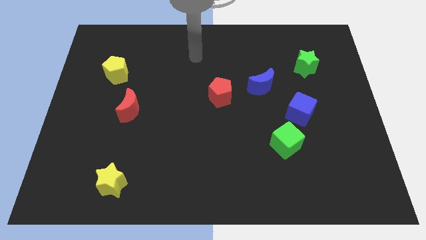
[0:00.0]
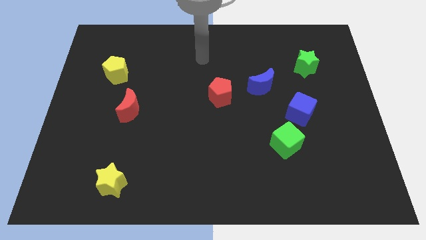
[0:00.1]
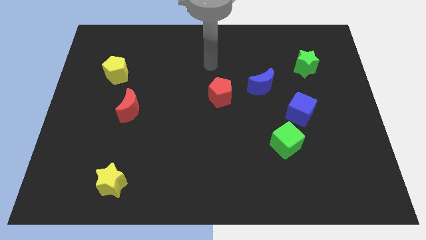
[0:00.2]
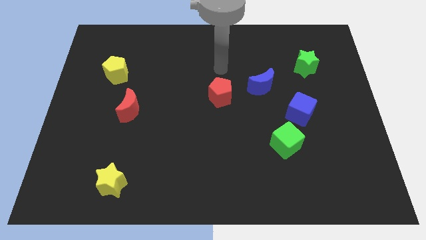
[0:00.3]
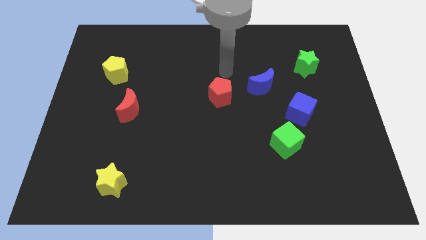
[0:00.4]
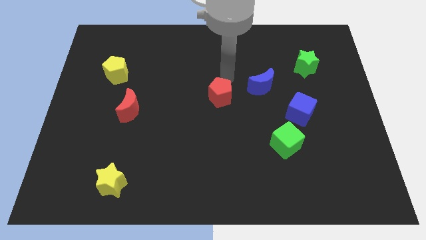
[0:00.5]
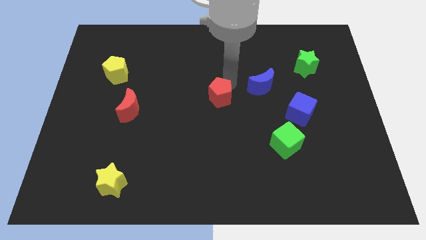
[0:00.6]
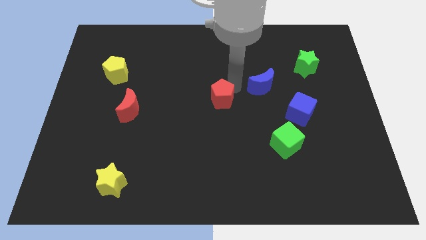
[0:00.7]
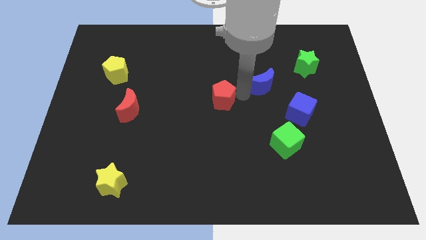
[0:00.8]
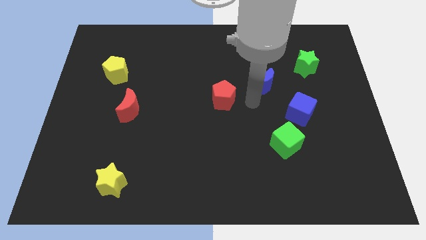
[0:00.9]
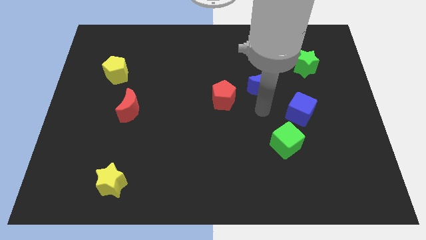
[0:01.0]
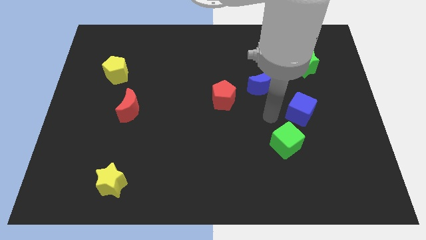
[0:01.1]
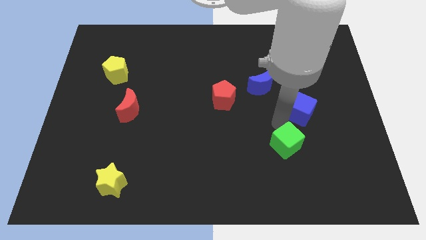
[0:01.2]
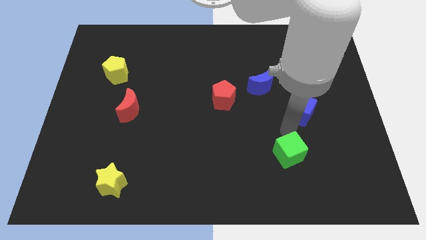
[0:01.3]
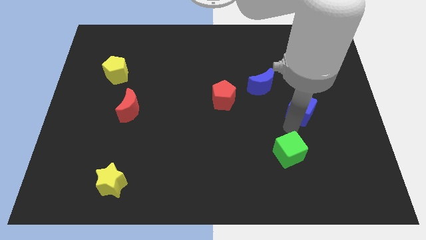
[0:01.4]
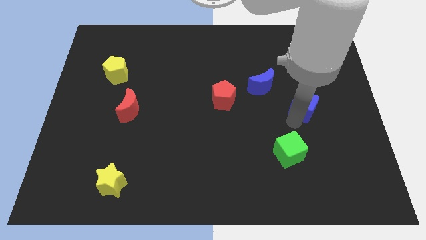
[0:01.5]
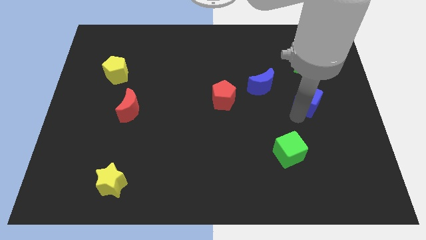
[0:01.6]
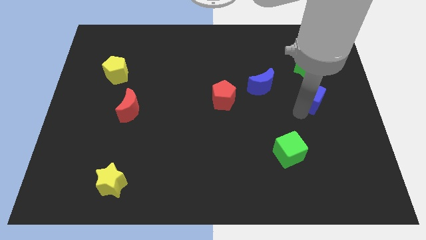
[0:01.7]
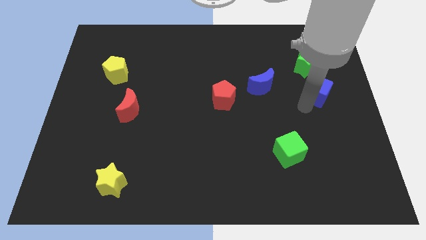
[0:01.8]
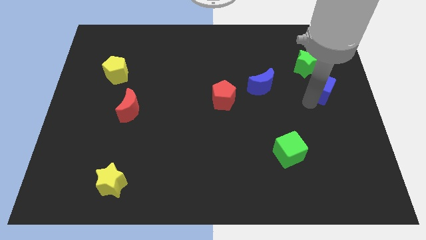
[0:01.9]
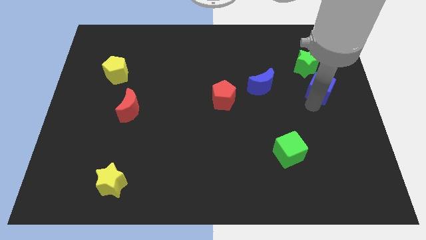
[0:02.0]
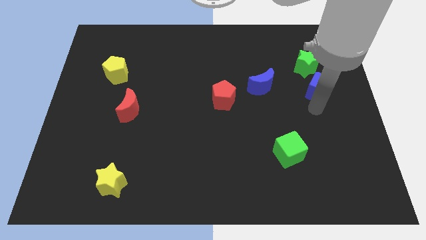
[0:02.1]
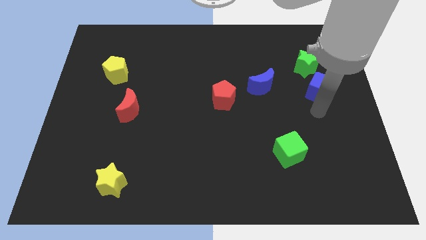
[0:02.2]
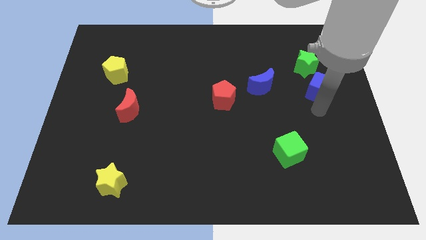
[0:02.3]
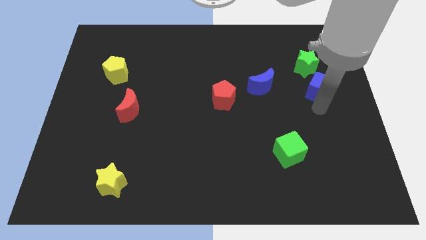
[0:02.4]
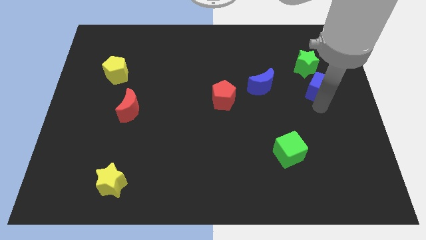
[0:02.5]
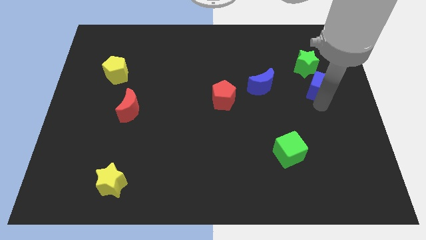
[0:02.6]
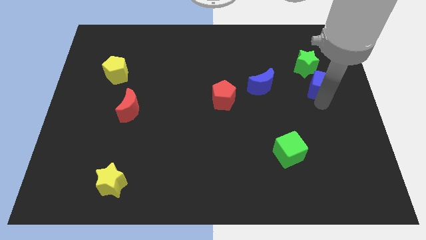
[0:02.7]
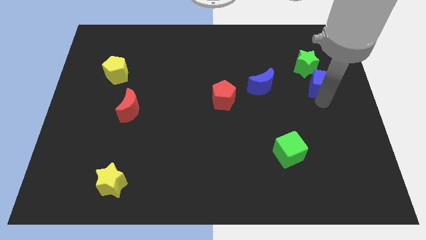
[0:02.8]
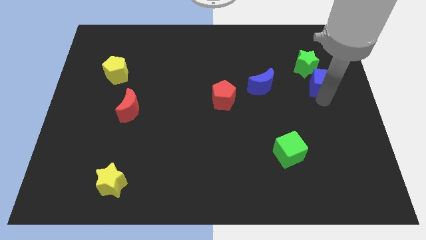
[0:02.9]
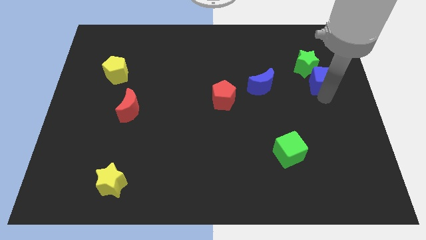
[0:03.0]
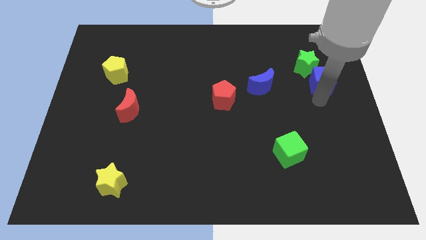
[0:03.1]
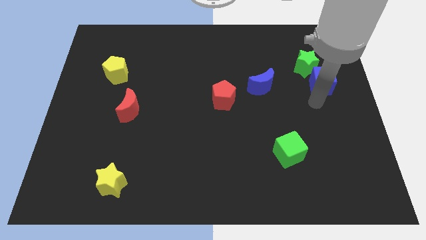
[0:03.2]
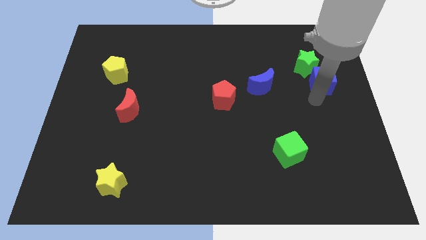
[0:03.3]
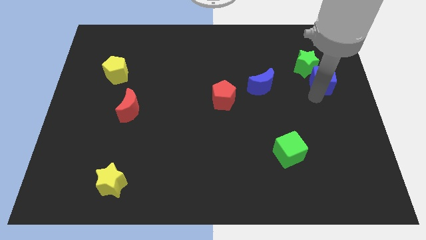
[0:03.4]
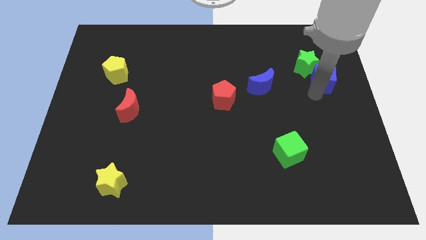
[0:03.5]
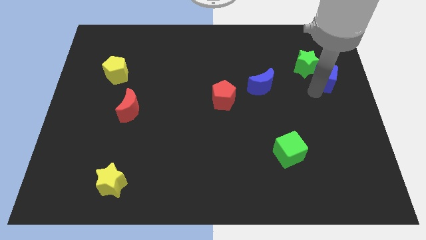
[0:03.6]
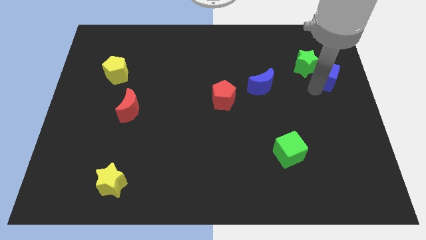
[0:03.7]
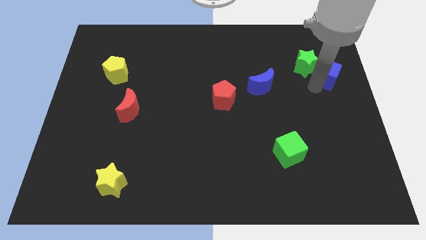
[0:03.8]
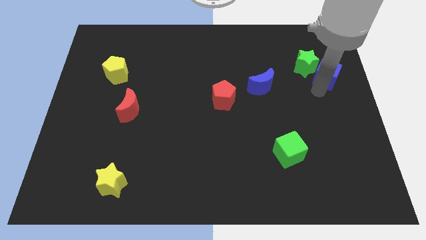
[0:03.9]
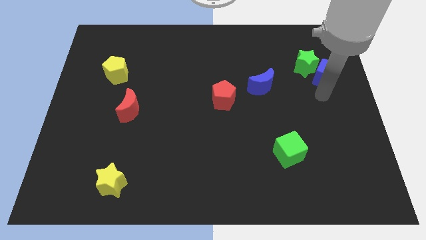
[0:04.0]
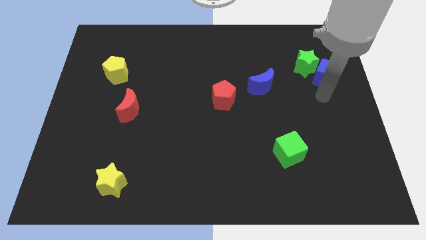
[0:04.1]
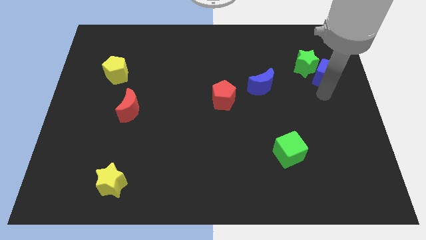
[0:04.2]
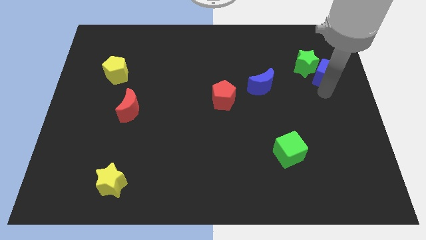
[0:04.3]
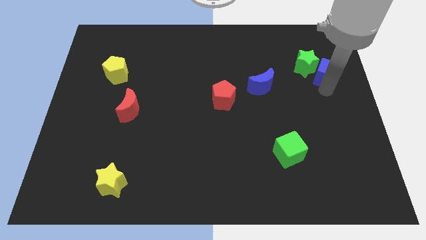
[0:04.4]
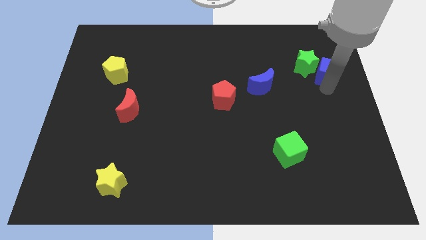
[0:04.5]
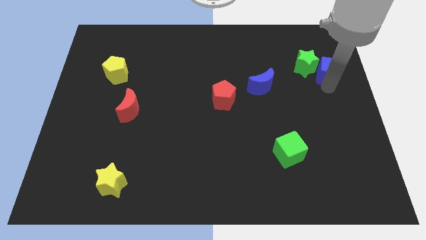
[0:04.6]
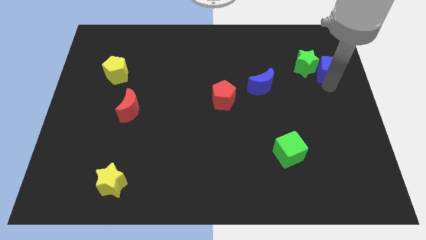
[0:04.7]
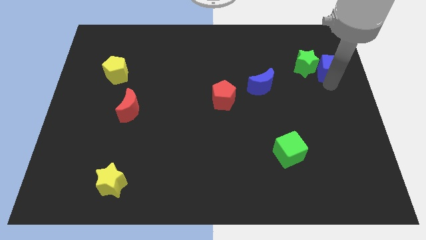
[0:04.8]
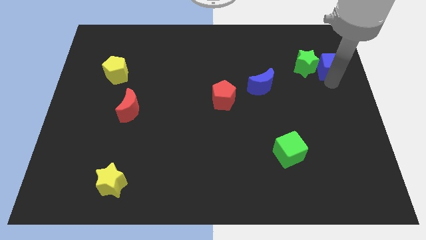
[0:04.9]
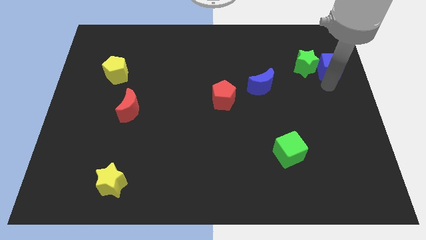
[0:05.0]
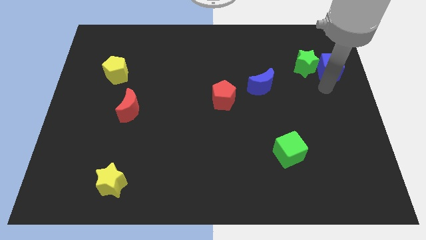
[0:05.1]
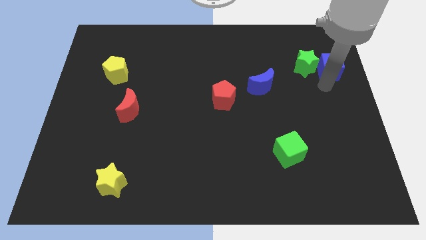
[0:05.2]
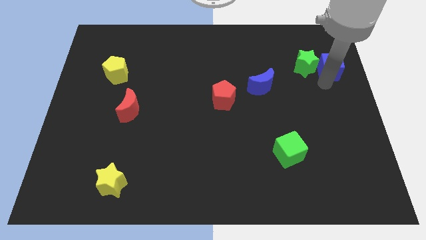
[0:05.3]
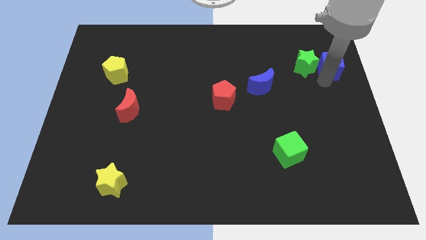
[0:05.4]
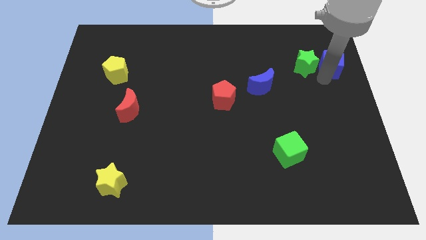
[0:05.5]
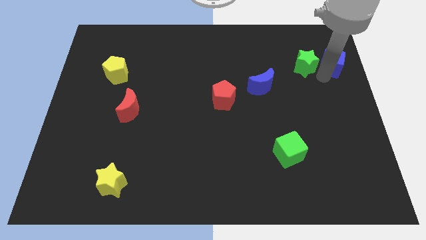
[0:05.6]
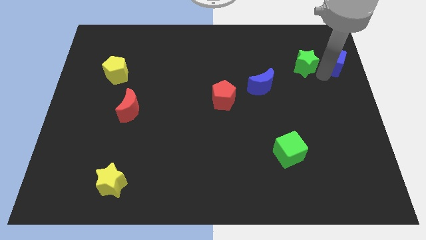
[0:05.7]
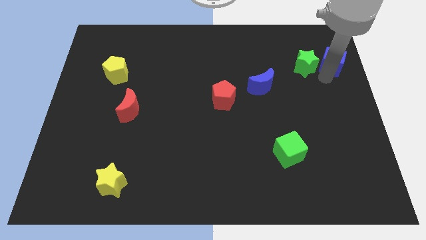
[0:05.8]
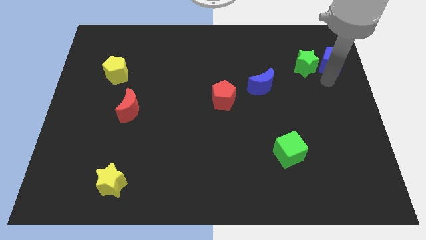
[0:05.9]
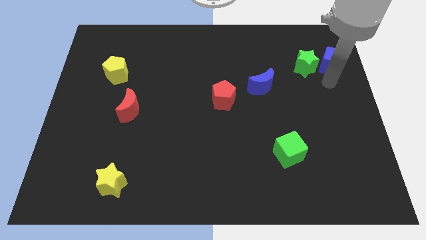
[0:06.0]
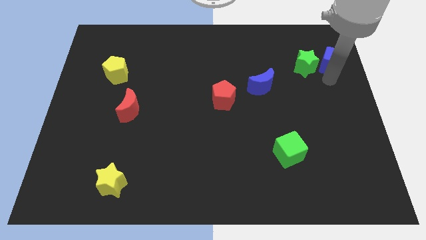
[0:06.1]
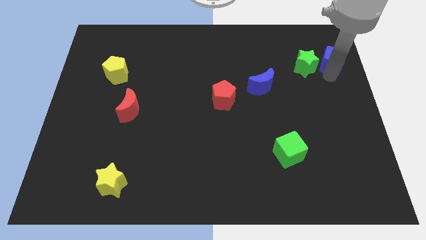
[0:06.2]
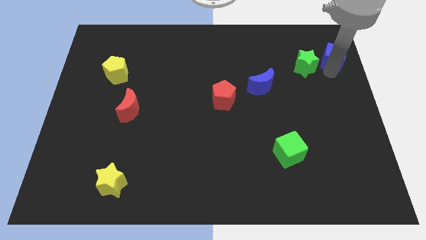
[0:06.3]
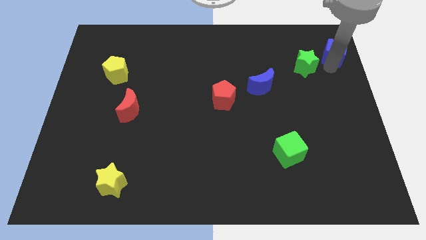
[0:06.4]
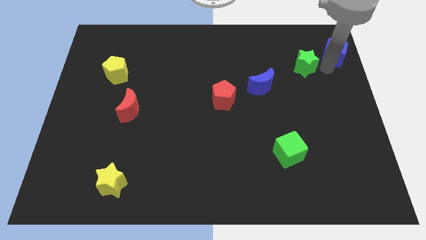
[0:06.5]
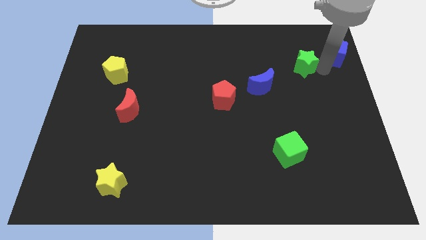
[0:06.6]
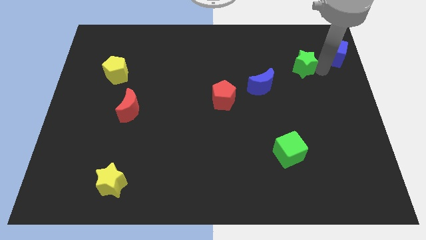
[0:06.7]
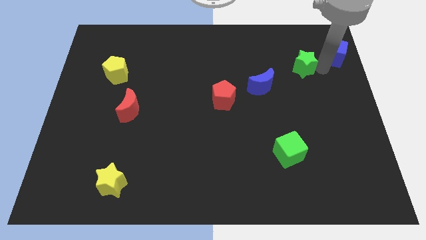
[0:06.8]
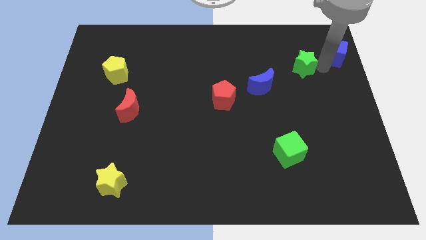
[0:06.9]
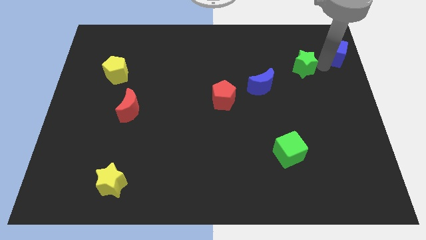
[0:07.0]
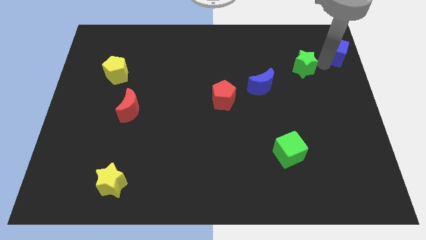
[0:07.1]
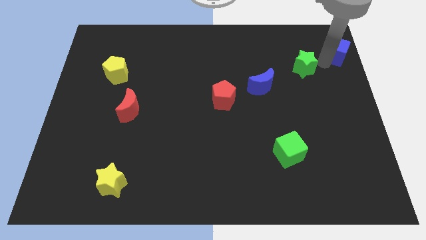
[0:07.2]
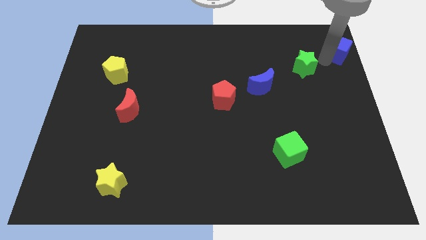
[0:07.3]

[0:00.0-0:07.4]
put the blue cube to the upper right corner
